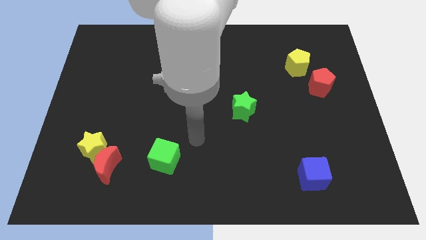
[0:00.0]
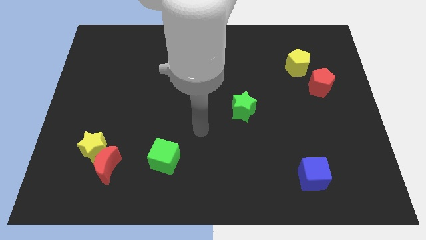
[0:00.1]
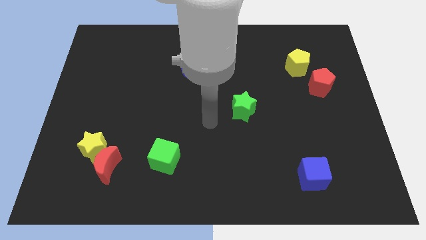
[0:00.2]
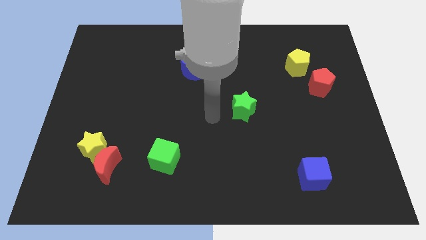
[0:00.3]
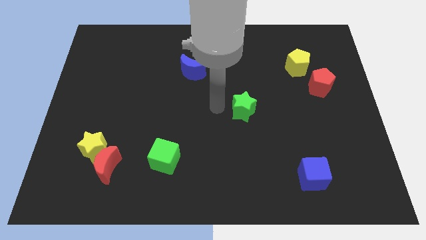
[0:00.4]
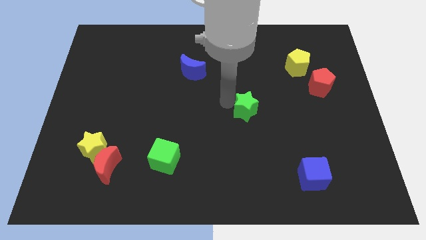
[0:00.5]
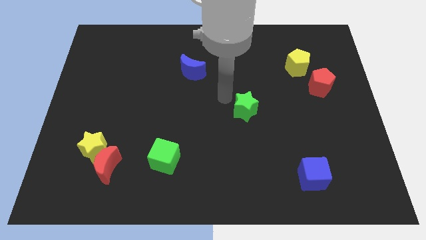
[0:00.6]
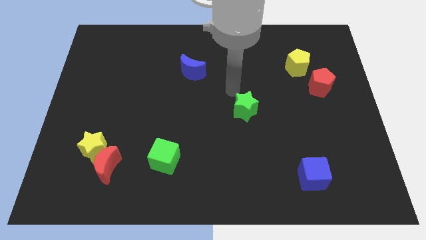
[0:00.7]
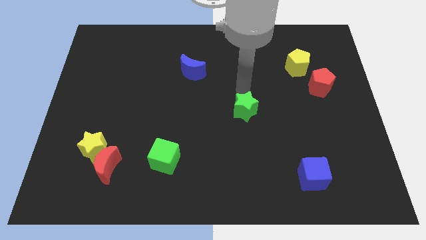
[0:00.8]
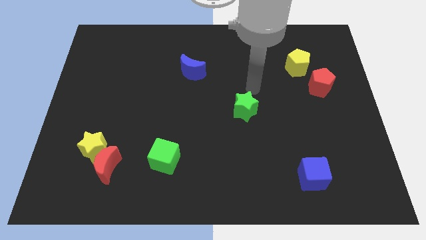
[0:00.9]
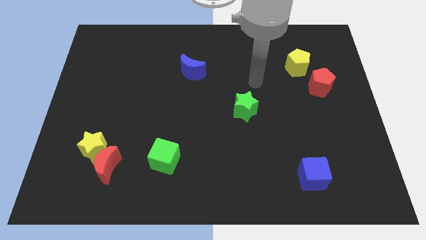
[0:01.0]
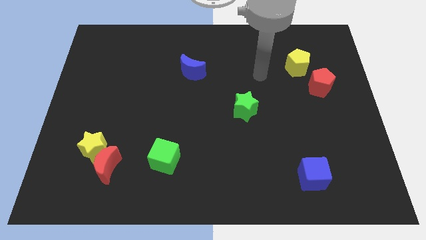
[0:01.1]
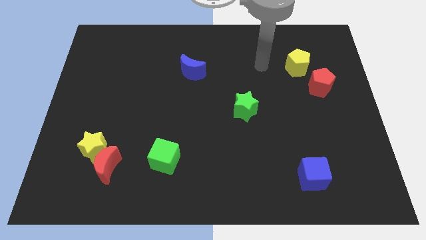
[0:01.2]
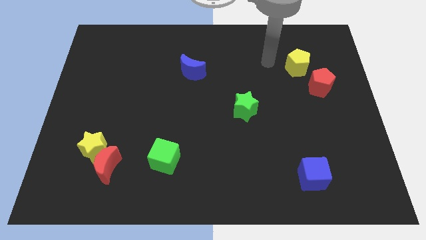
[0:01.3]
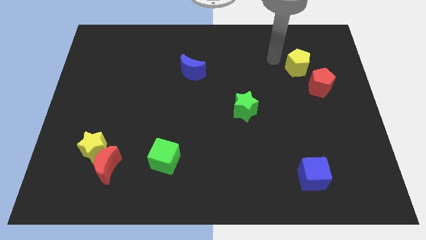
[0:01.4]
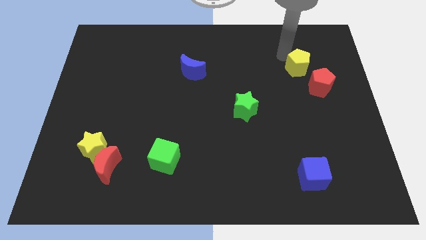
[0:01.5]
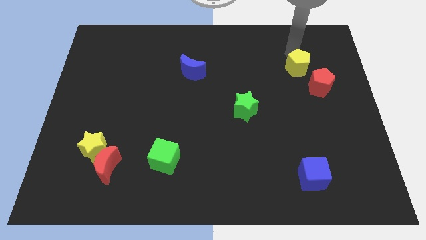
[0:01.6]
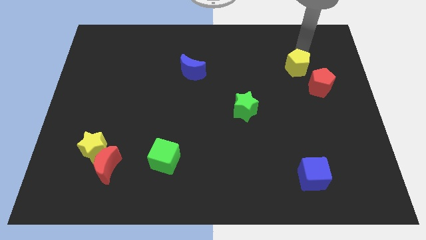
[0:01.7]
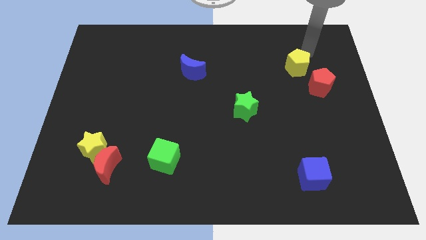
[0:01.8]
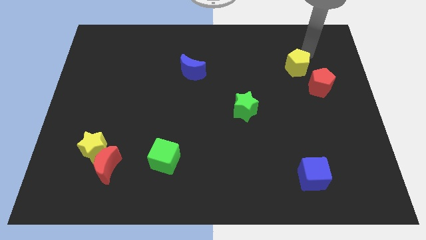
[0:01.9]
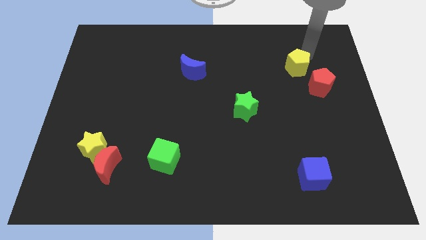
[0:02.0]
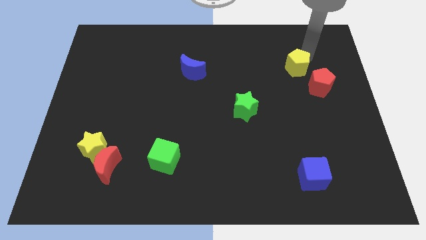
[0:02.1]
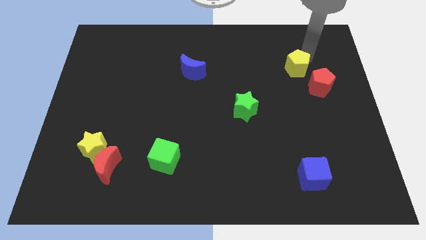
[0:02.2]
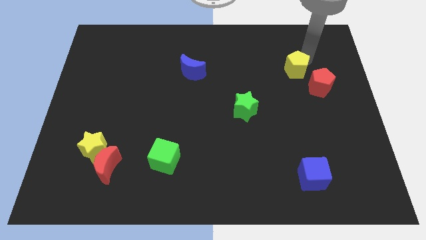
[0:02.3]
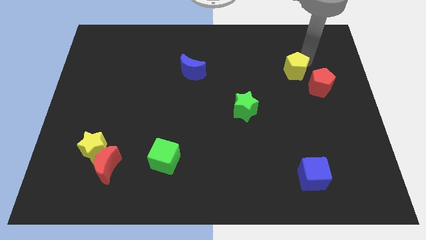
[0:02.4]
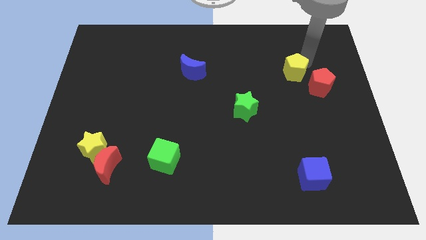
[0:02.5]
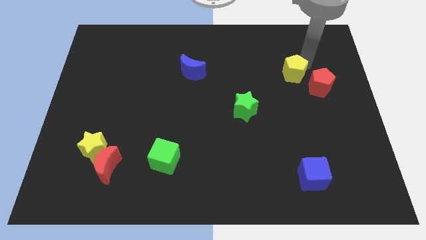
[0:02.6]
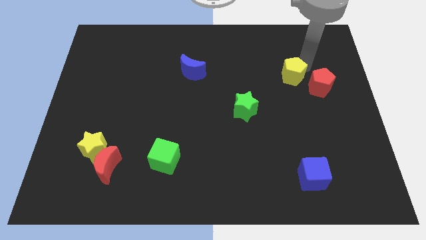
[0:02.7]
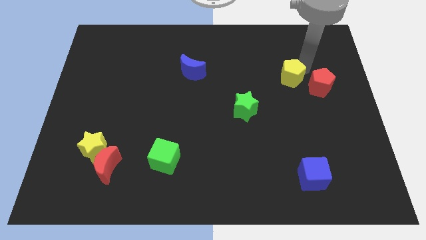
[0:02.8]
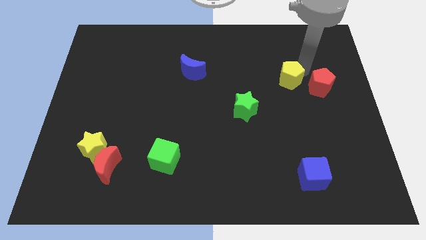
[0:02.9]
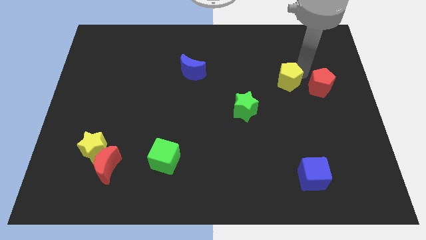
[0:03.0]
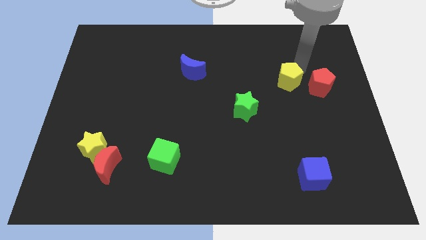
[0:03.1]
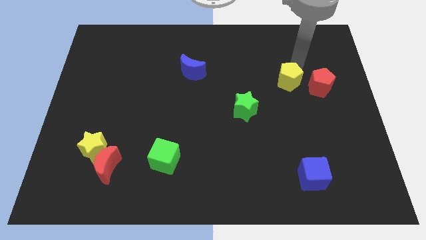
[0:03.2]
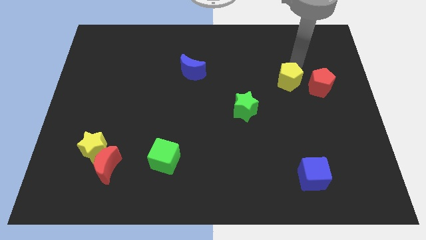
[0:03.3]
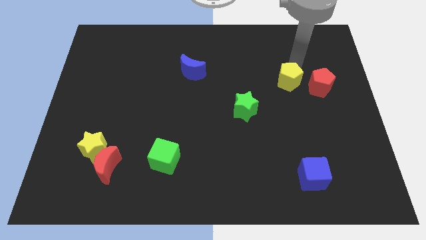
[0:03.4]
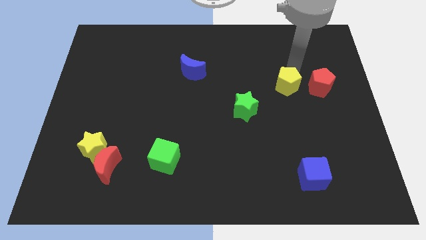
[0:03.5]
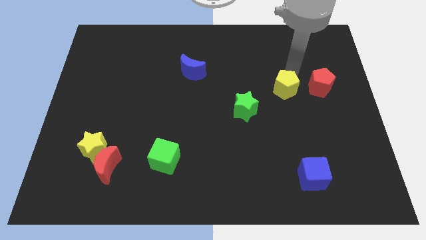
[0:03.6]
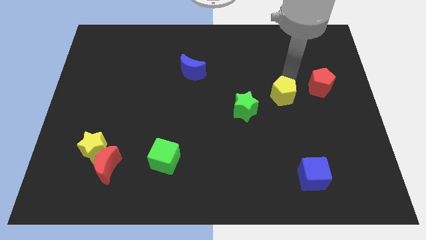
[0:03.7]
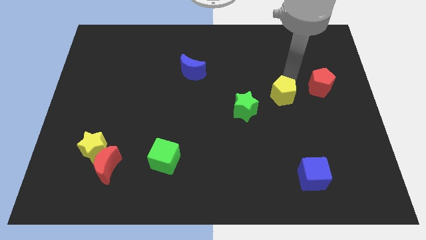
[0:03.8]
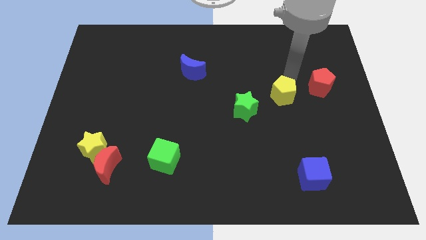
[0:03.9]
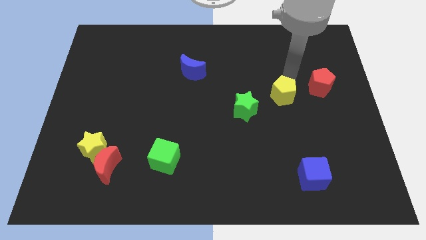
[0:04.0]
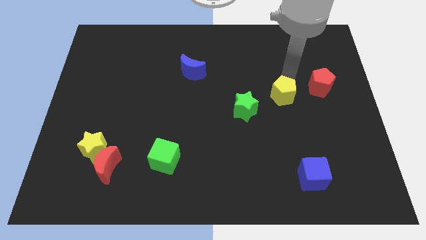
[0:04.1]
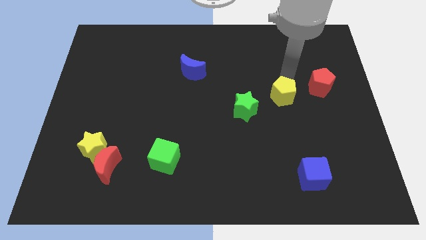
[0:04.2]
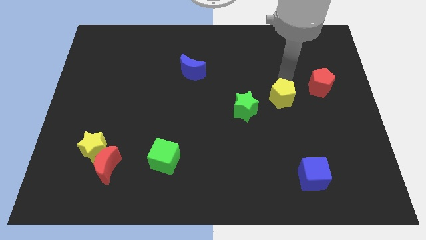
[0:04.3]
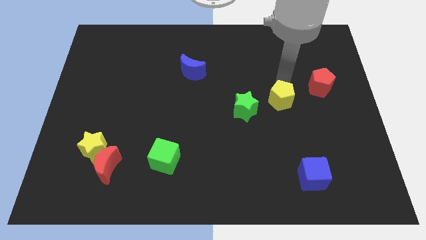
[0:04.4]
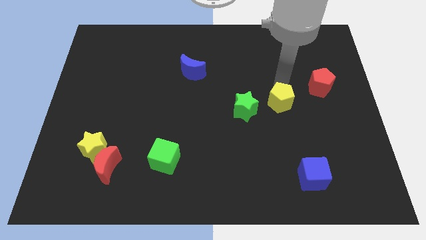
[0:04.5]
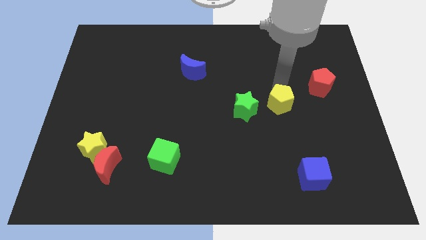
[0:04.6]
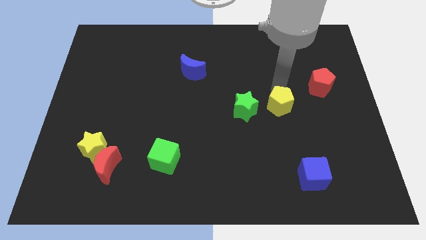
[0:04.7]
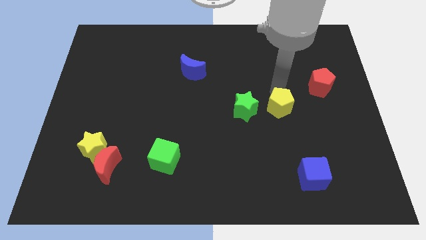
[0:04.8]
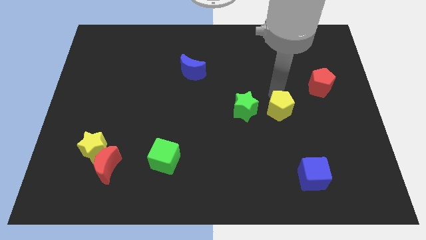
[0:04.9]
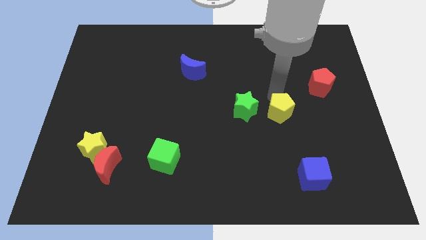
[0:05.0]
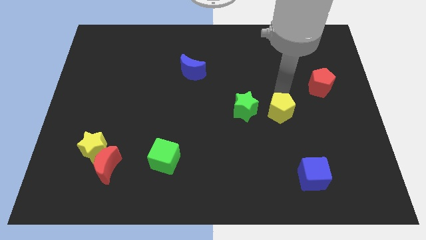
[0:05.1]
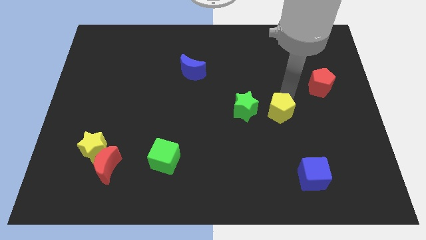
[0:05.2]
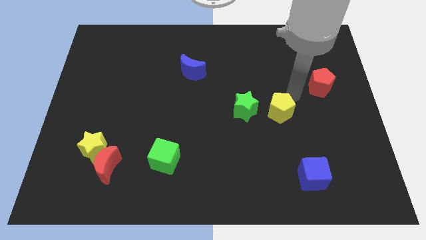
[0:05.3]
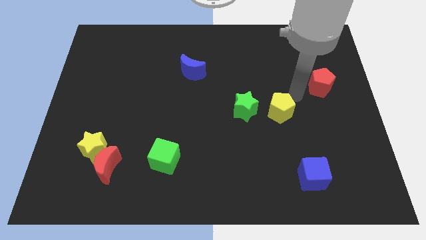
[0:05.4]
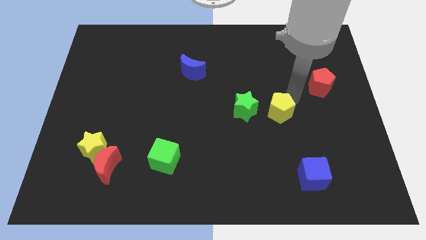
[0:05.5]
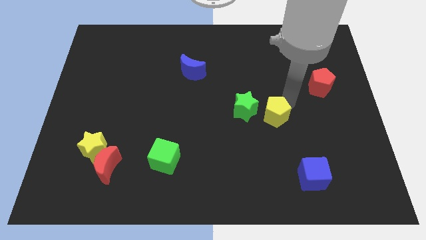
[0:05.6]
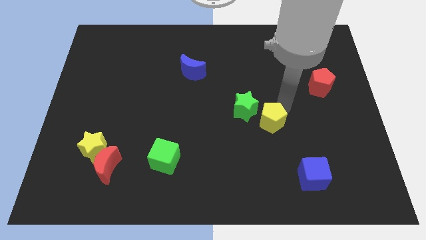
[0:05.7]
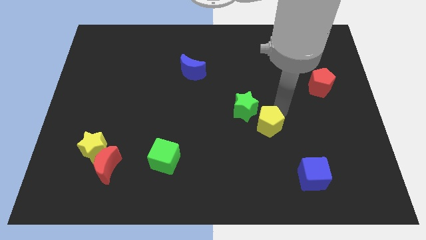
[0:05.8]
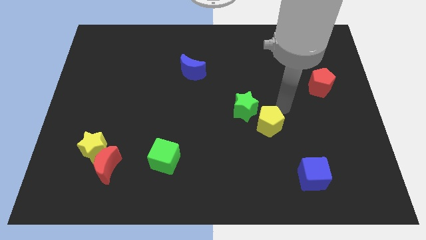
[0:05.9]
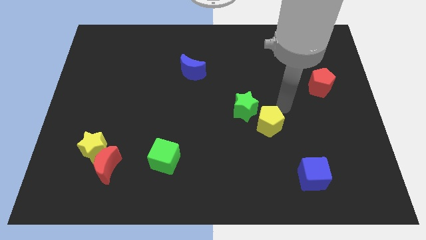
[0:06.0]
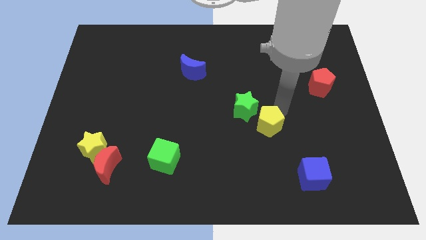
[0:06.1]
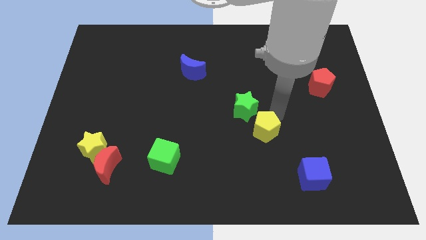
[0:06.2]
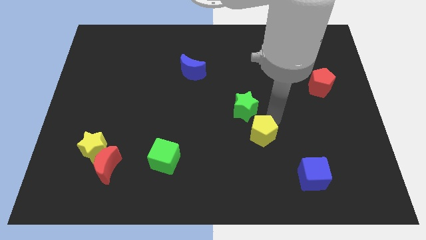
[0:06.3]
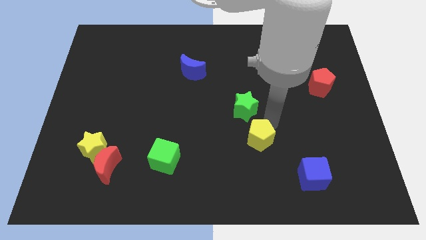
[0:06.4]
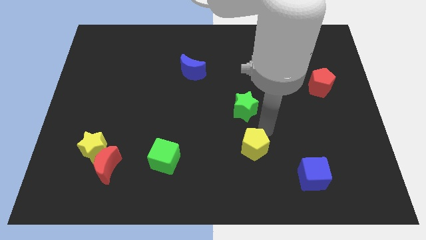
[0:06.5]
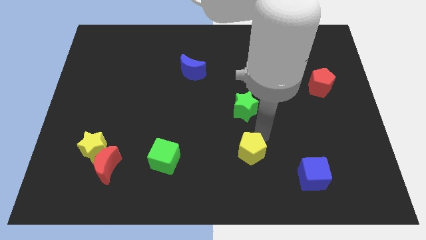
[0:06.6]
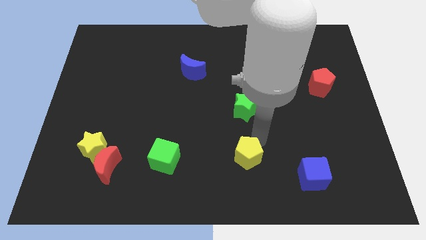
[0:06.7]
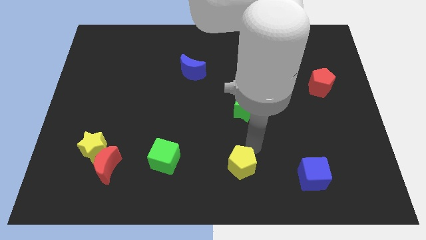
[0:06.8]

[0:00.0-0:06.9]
put the yellow pentagon to the bottom side
